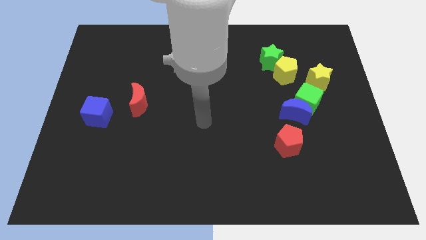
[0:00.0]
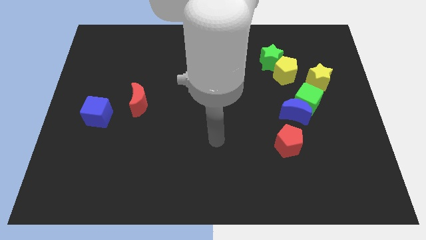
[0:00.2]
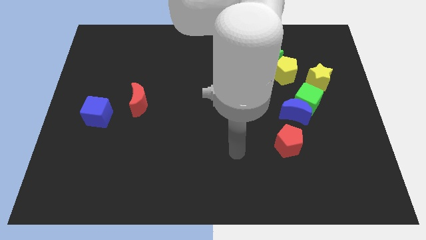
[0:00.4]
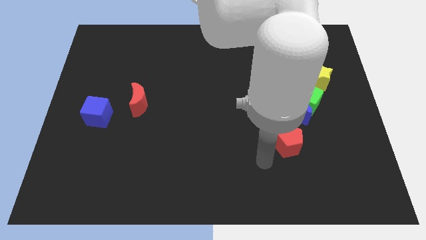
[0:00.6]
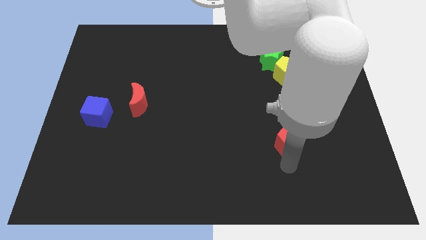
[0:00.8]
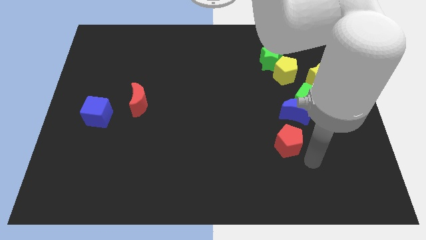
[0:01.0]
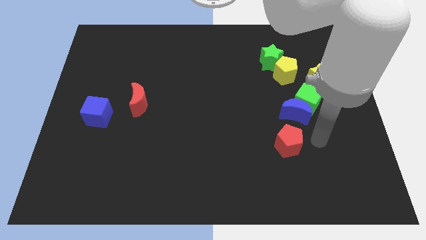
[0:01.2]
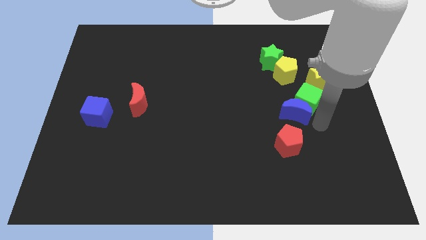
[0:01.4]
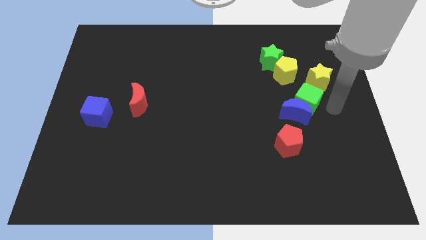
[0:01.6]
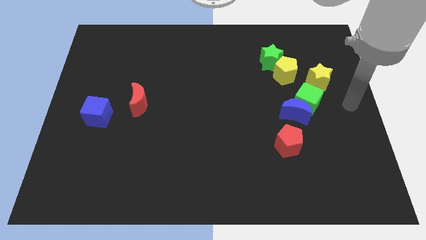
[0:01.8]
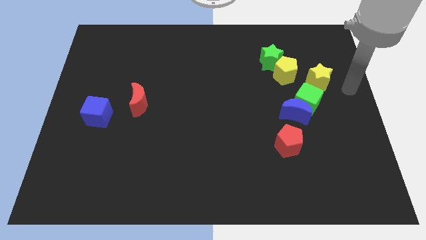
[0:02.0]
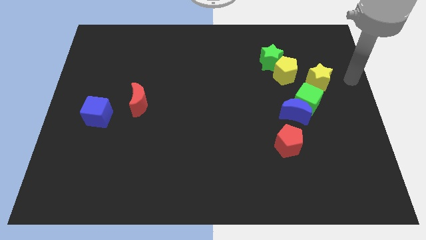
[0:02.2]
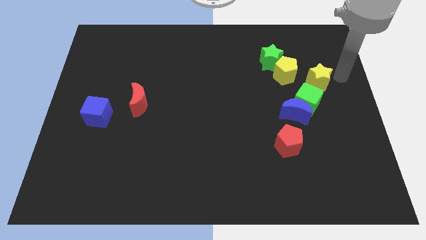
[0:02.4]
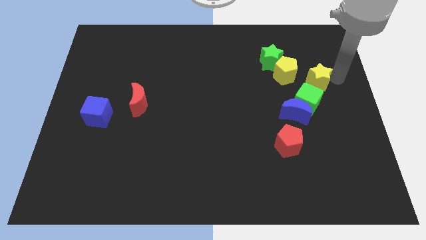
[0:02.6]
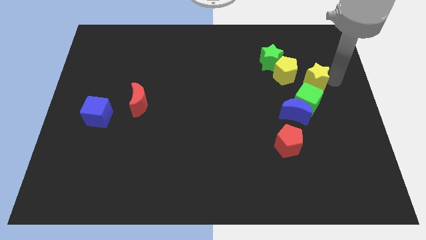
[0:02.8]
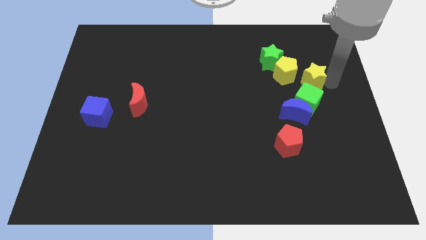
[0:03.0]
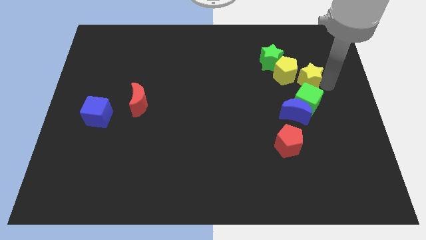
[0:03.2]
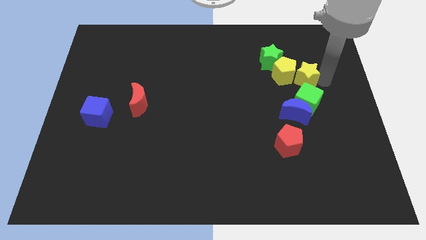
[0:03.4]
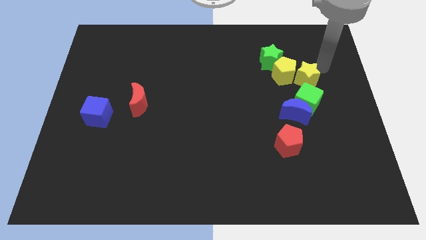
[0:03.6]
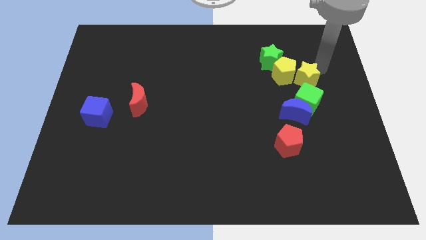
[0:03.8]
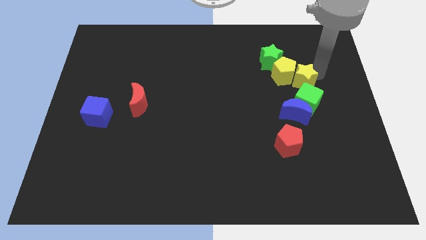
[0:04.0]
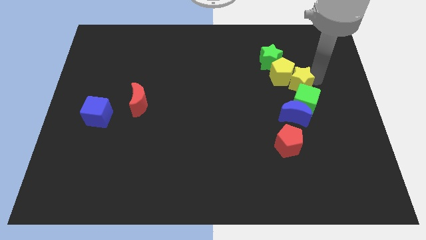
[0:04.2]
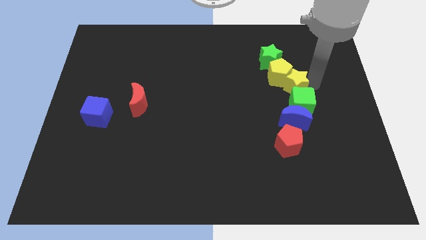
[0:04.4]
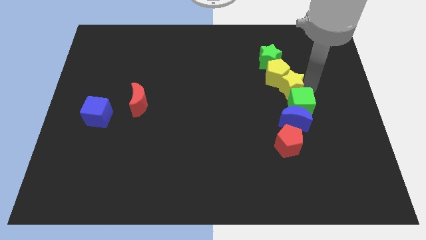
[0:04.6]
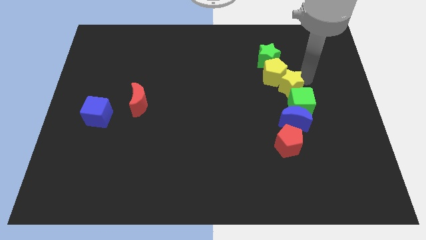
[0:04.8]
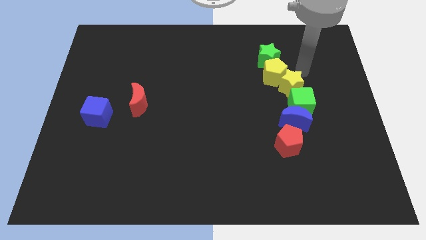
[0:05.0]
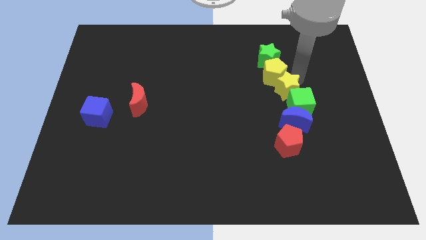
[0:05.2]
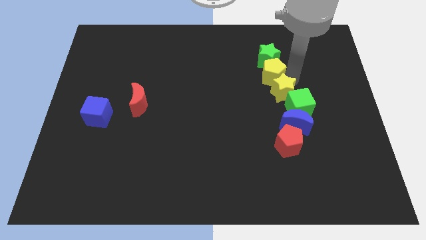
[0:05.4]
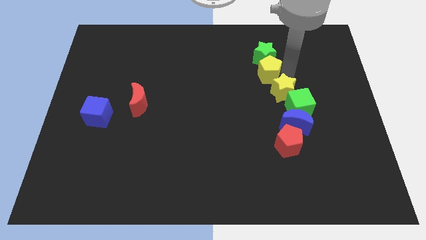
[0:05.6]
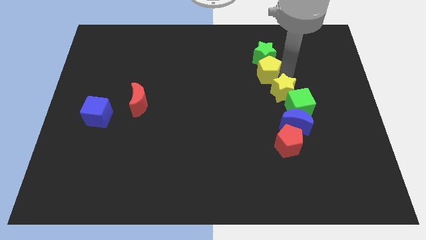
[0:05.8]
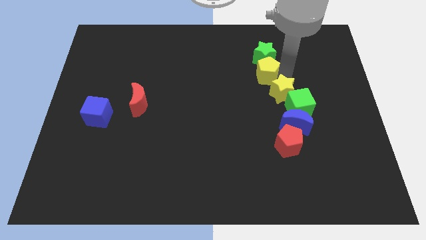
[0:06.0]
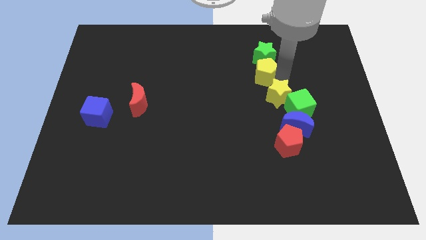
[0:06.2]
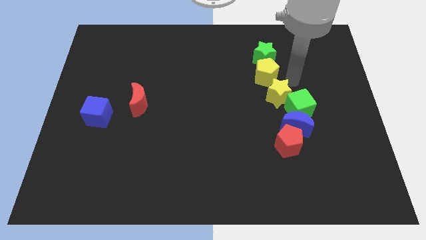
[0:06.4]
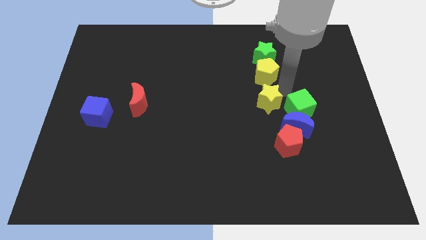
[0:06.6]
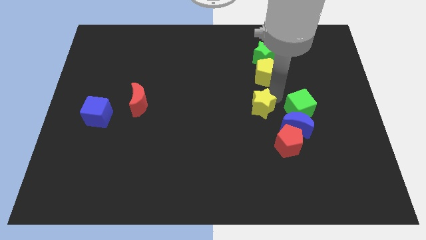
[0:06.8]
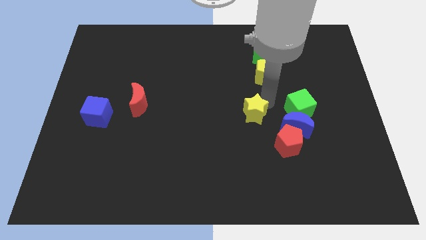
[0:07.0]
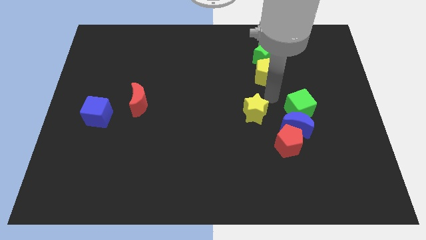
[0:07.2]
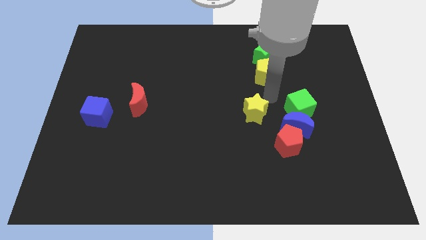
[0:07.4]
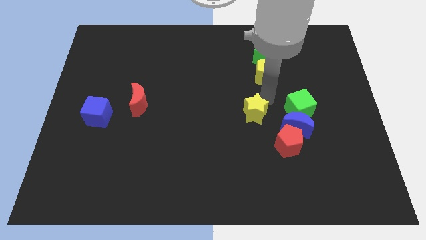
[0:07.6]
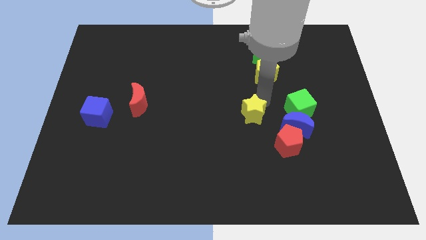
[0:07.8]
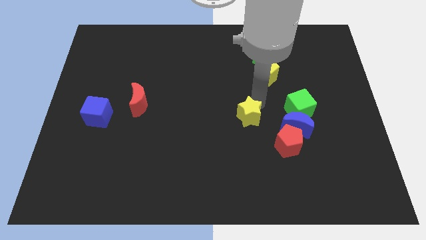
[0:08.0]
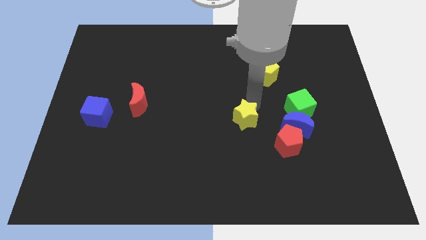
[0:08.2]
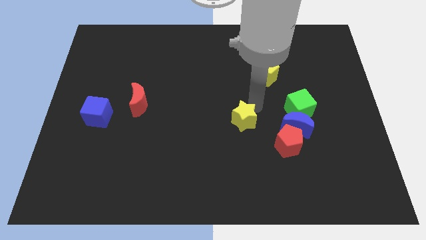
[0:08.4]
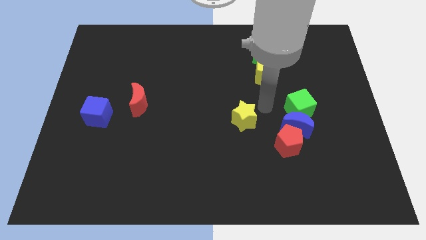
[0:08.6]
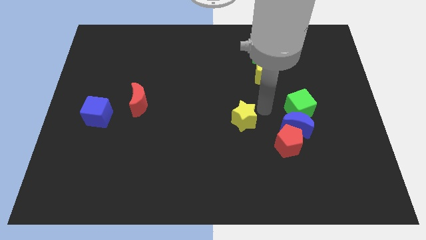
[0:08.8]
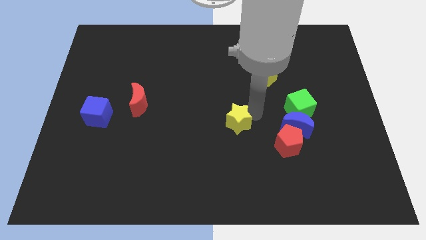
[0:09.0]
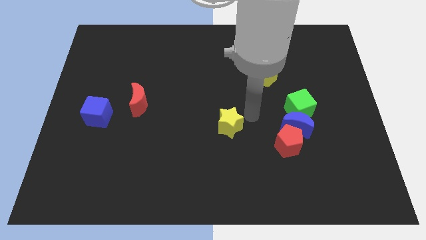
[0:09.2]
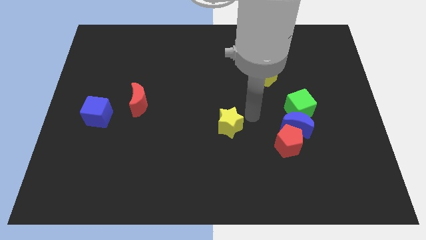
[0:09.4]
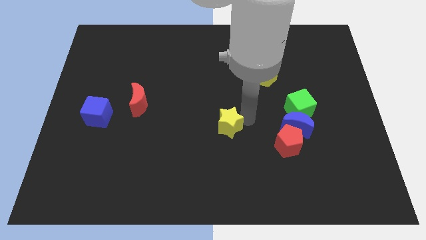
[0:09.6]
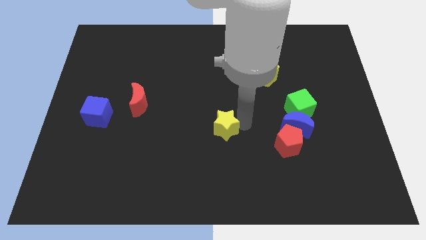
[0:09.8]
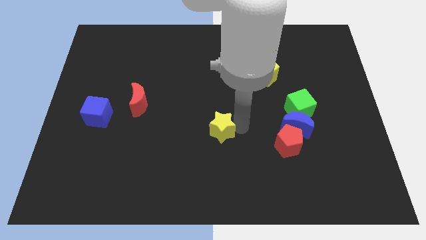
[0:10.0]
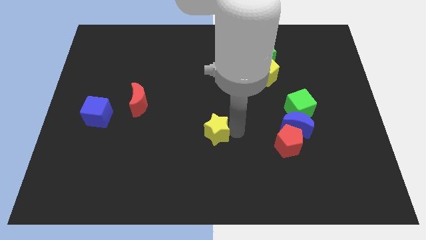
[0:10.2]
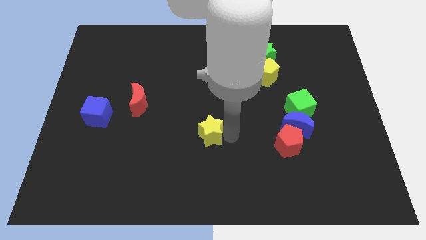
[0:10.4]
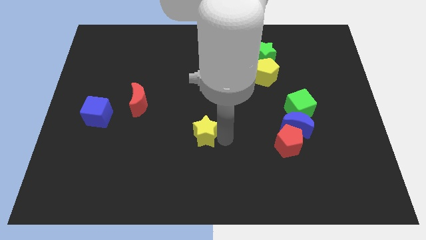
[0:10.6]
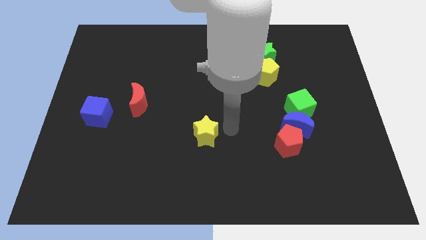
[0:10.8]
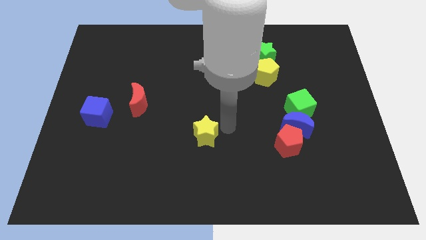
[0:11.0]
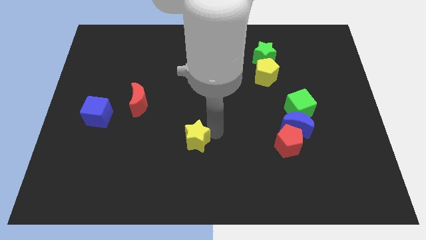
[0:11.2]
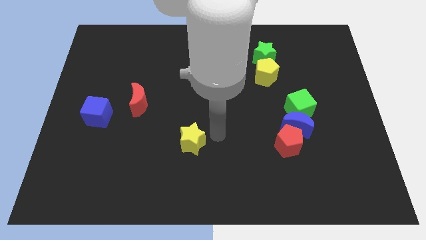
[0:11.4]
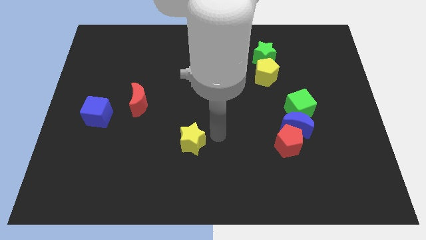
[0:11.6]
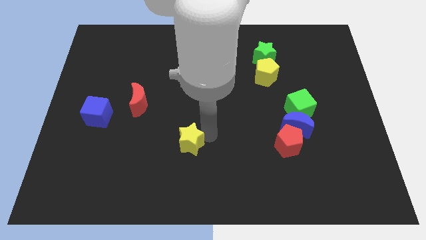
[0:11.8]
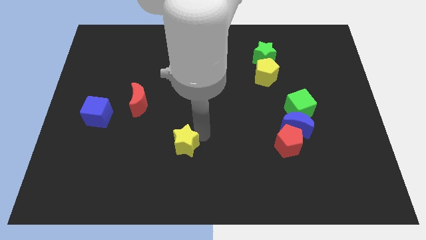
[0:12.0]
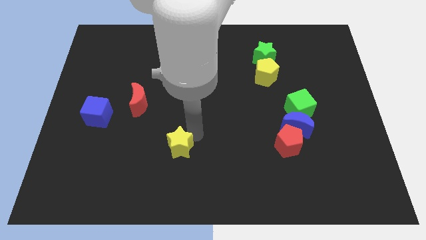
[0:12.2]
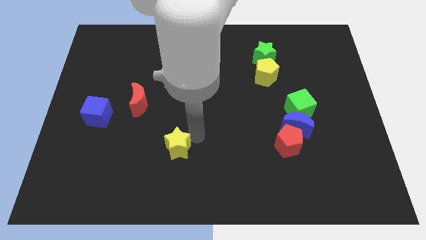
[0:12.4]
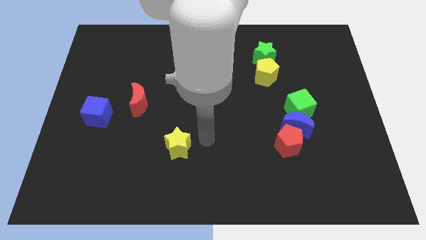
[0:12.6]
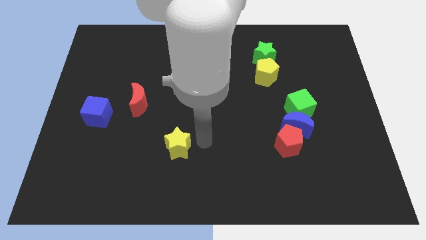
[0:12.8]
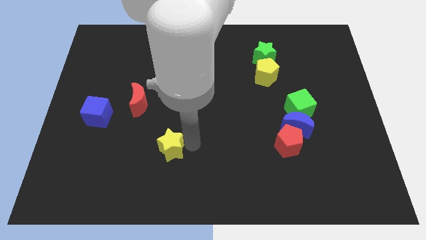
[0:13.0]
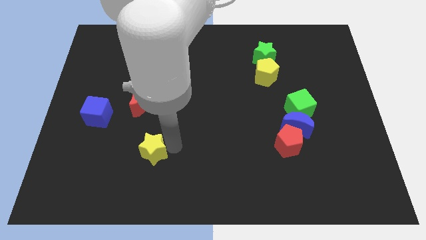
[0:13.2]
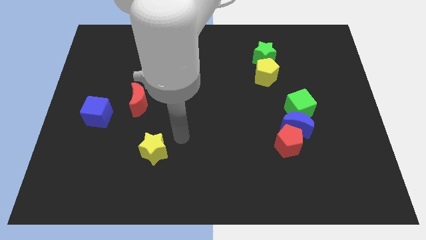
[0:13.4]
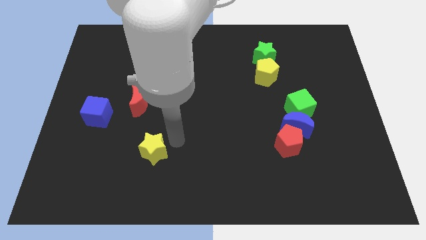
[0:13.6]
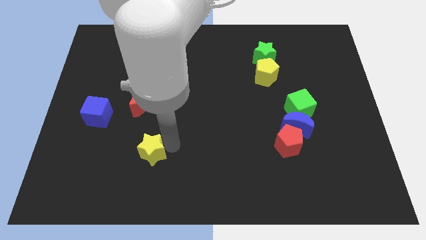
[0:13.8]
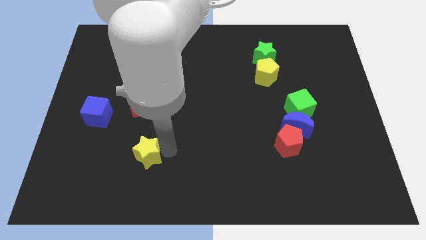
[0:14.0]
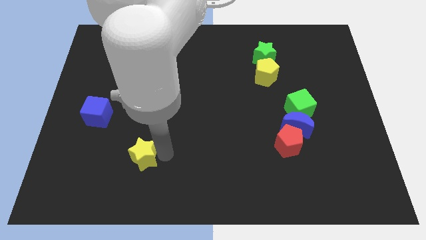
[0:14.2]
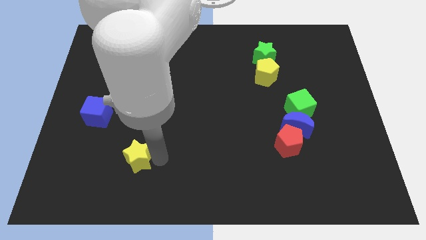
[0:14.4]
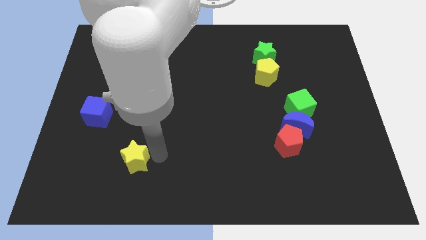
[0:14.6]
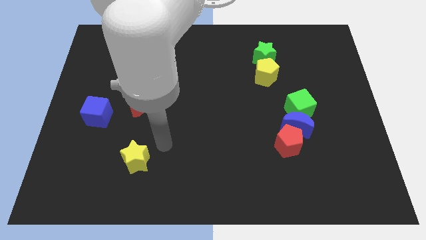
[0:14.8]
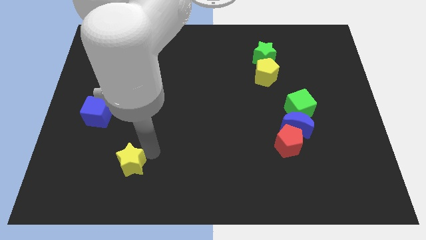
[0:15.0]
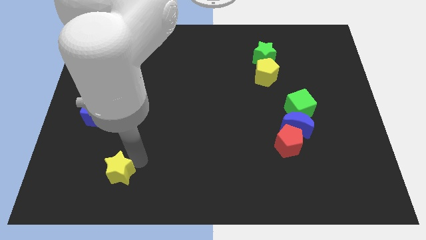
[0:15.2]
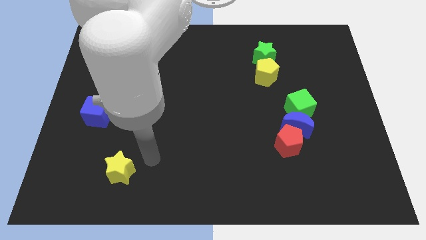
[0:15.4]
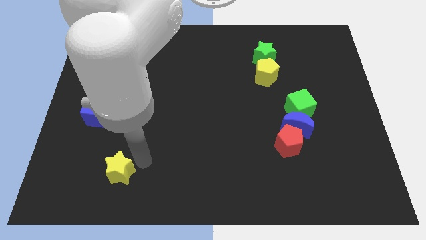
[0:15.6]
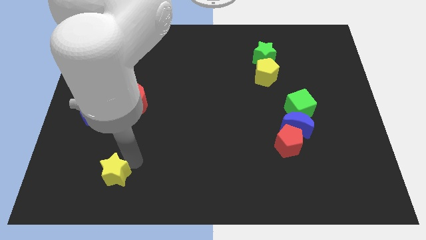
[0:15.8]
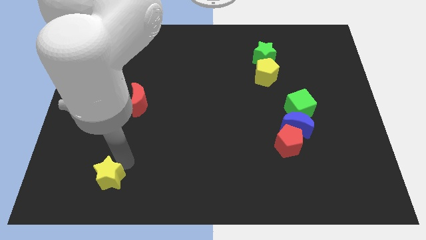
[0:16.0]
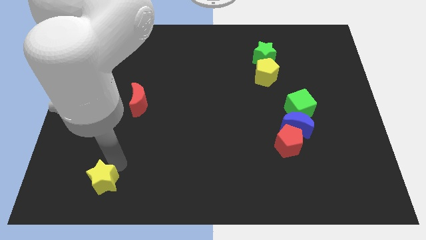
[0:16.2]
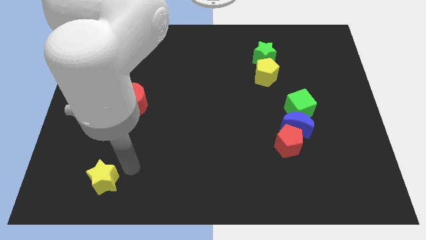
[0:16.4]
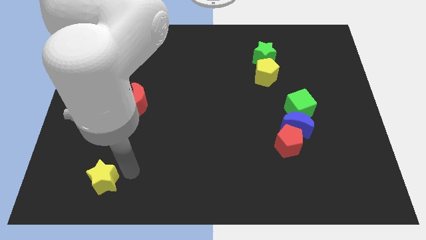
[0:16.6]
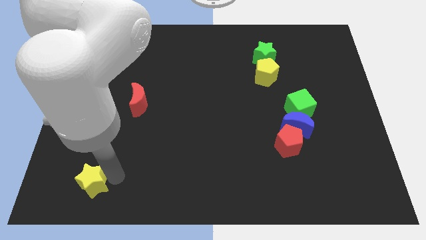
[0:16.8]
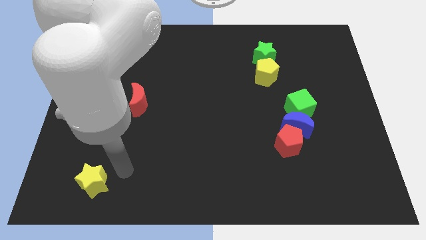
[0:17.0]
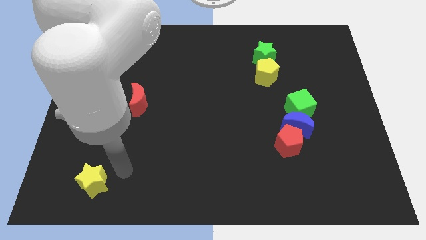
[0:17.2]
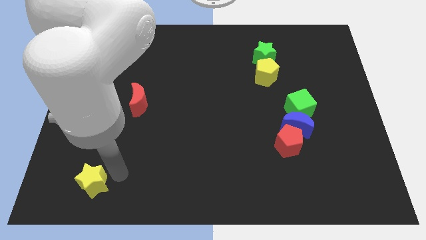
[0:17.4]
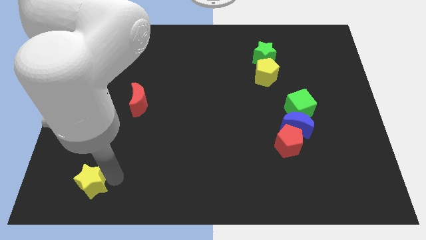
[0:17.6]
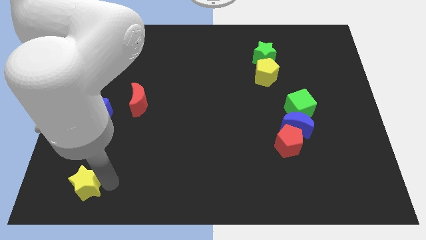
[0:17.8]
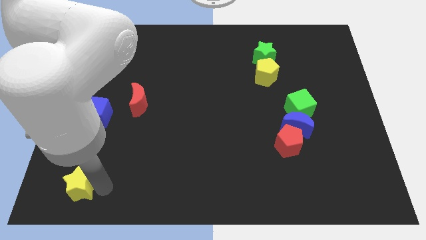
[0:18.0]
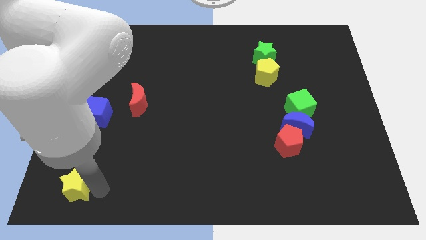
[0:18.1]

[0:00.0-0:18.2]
move the yellow star to the lower left corner
